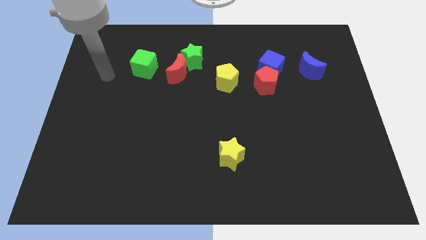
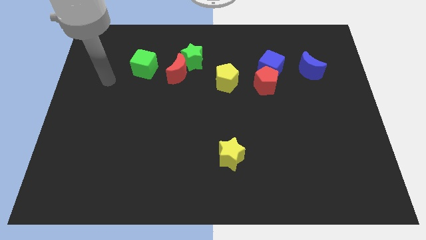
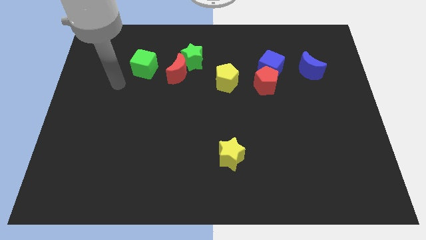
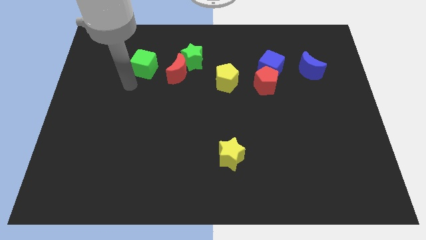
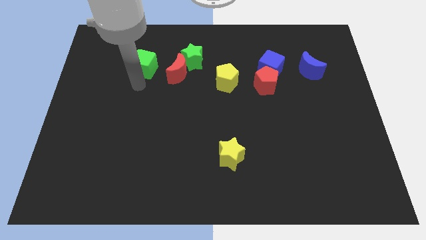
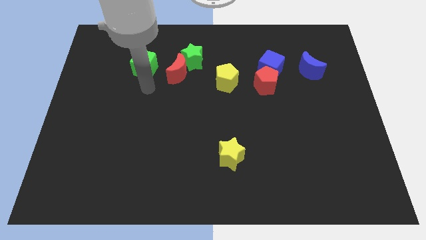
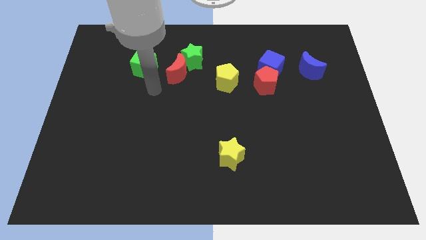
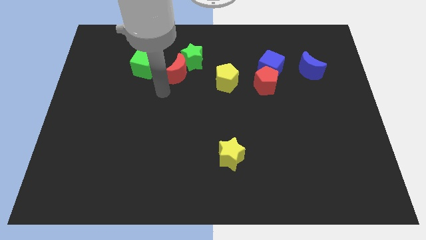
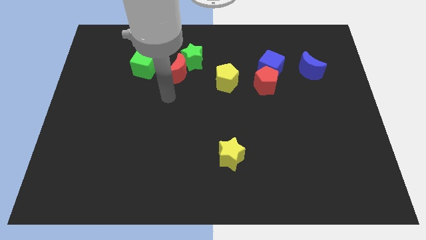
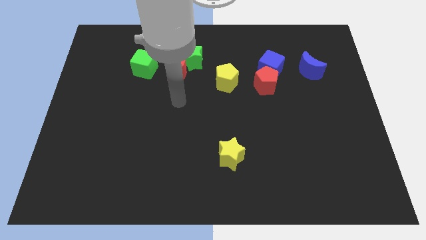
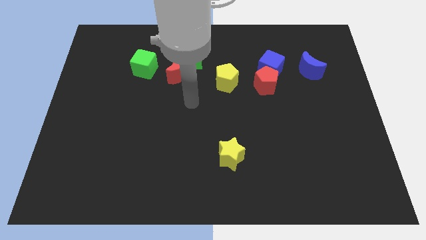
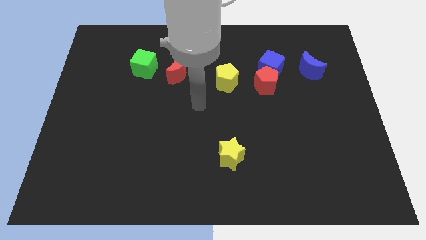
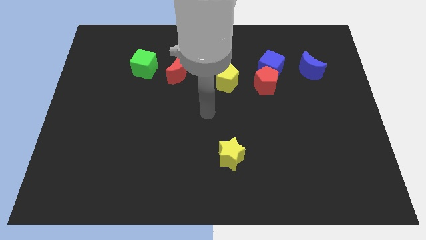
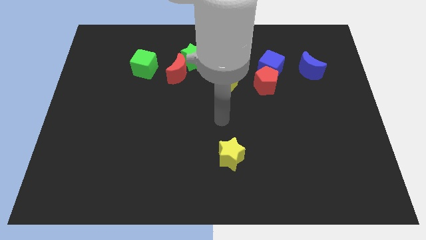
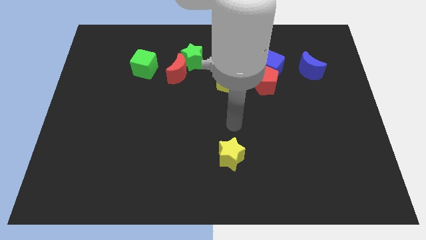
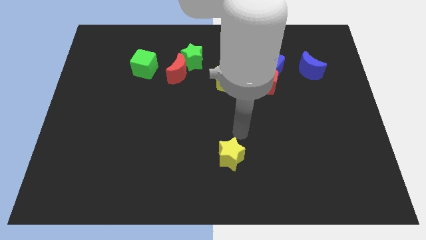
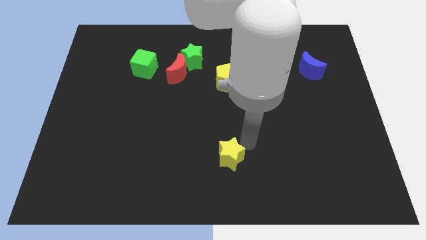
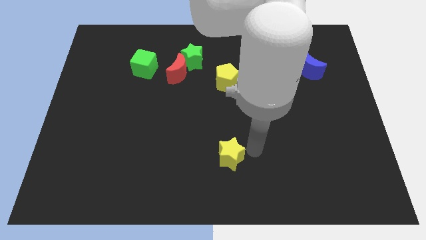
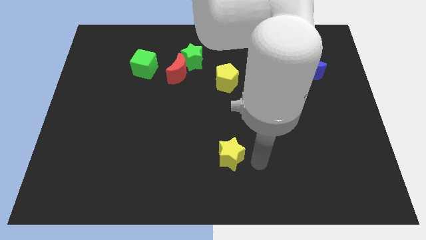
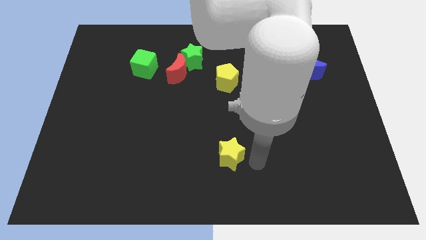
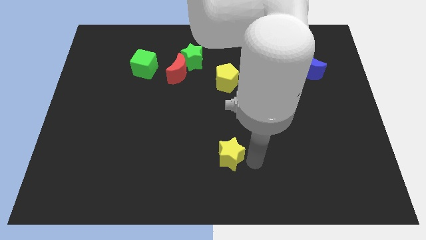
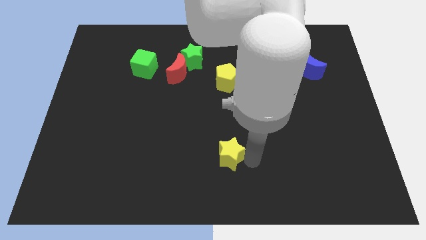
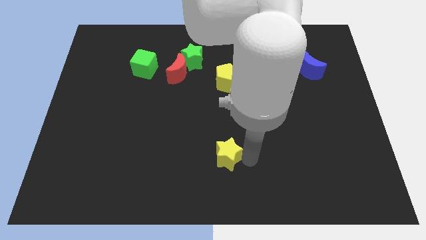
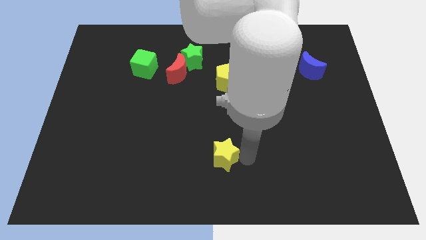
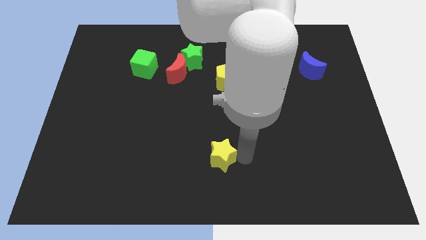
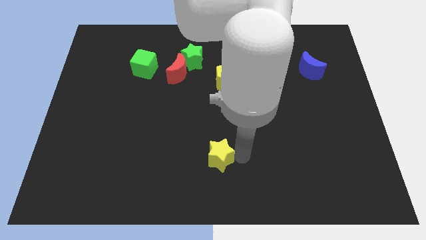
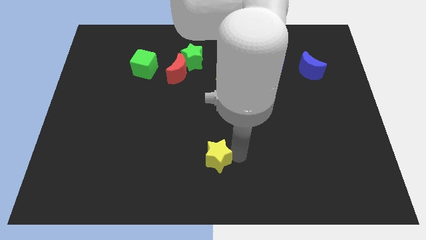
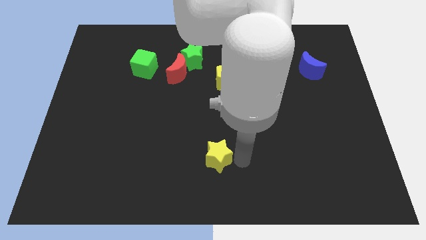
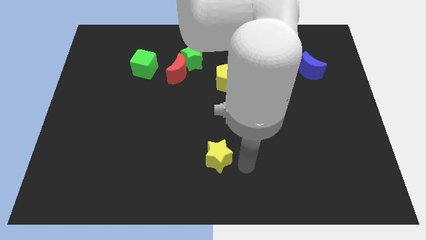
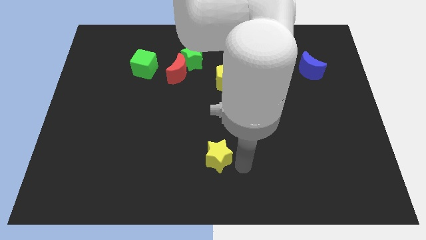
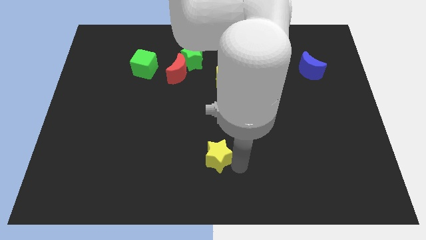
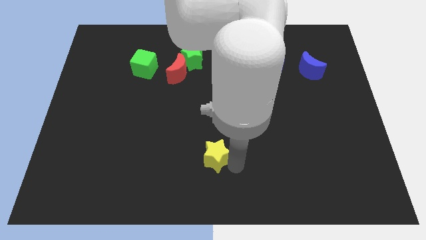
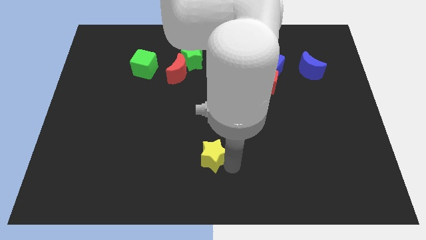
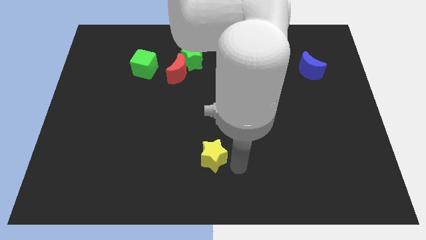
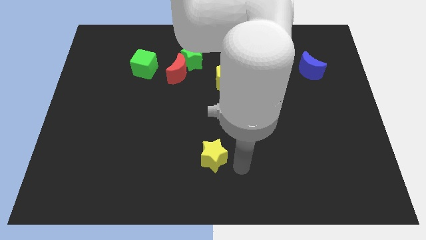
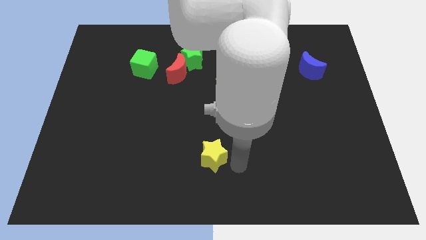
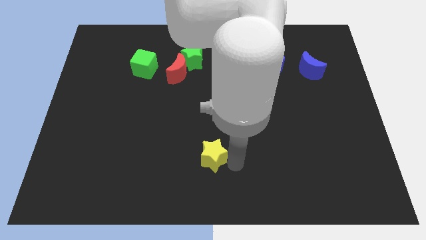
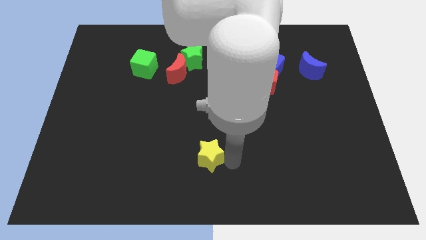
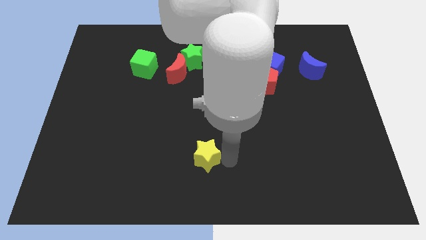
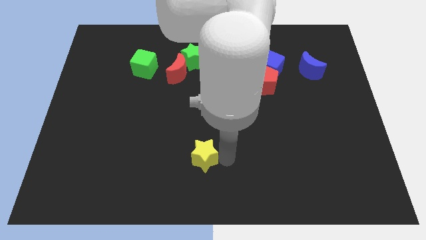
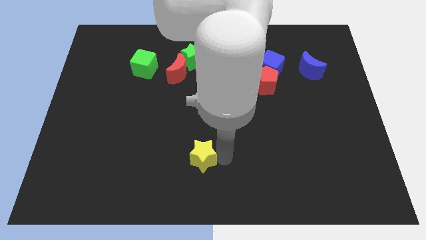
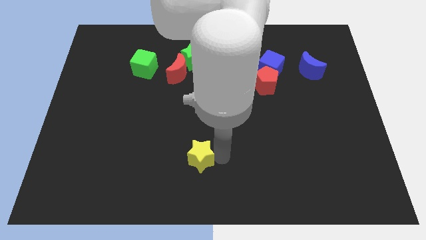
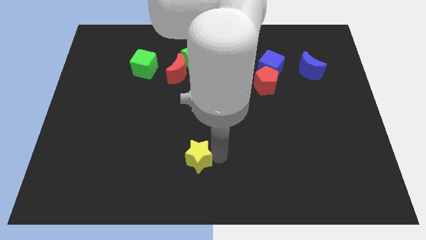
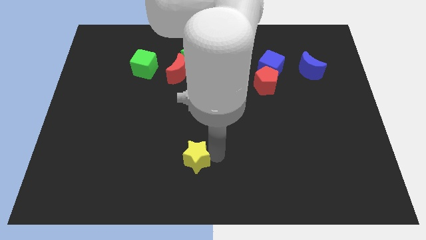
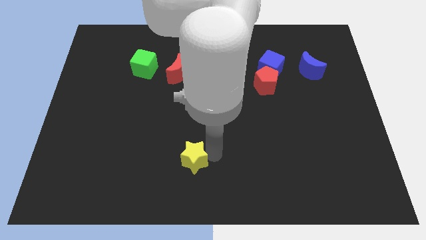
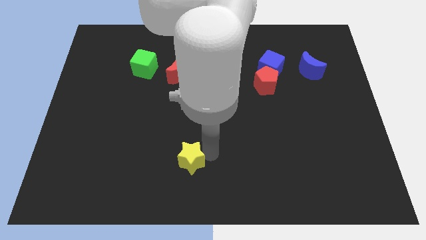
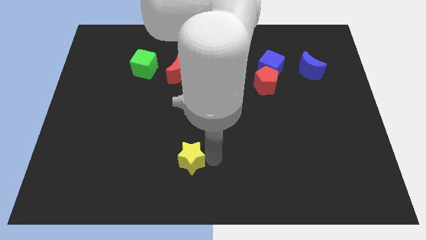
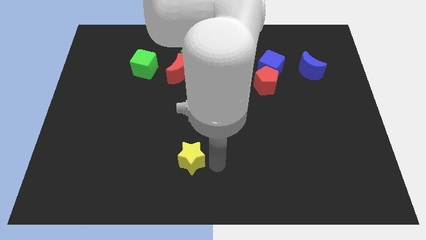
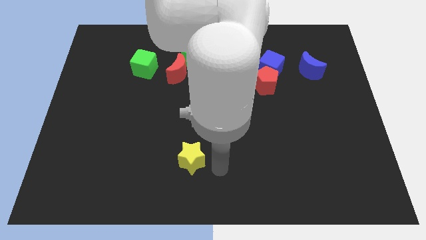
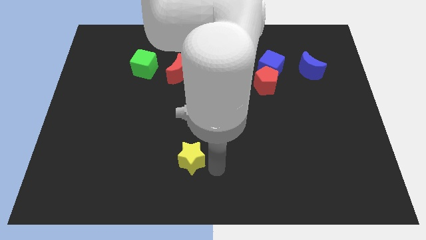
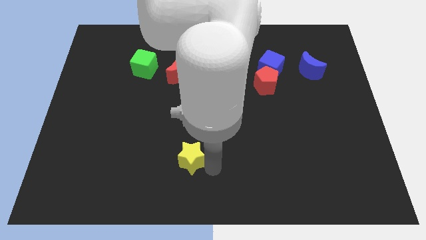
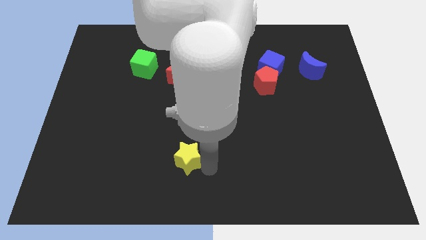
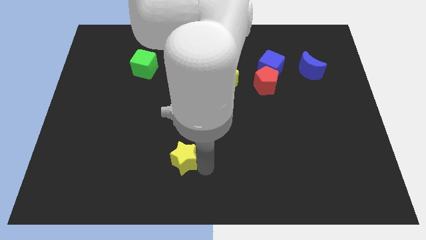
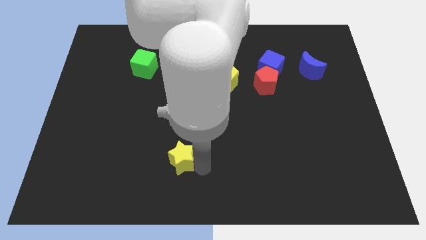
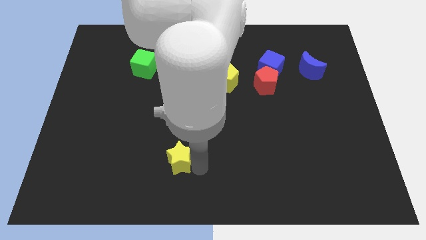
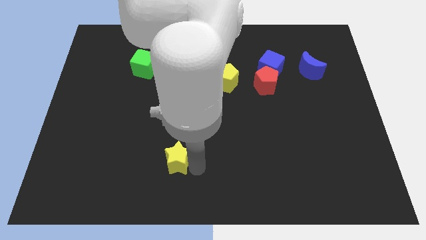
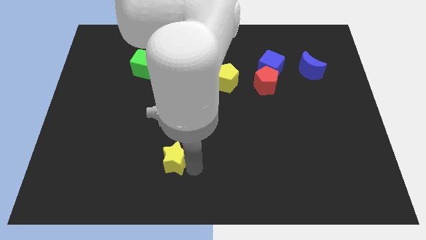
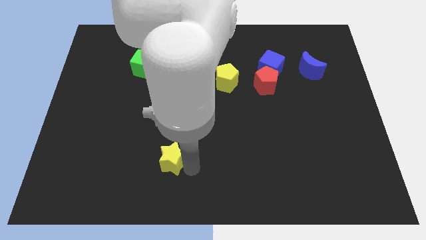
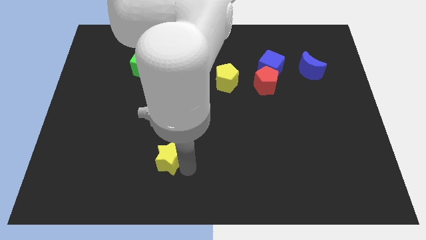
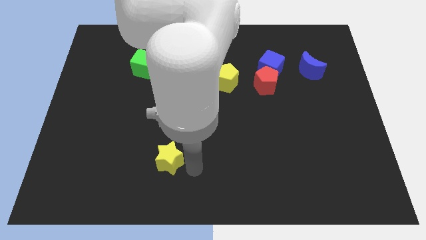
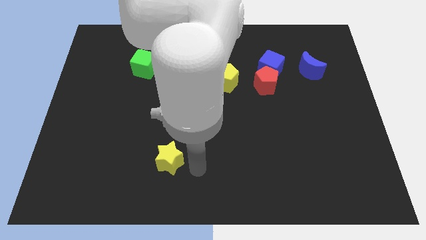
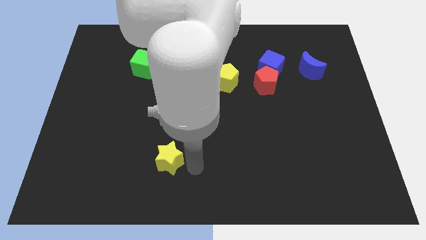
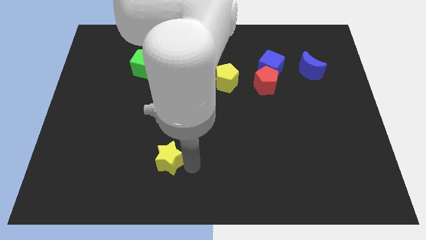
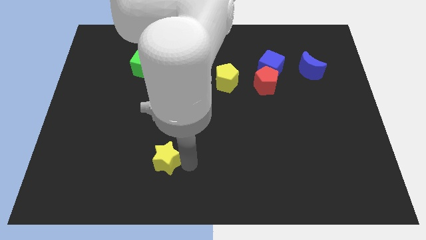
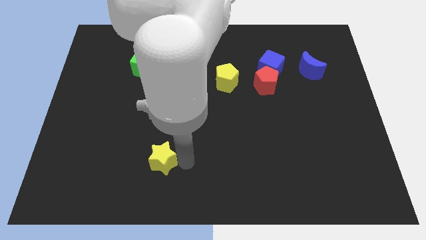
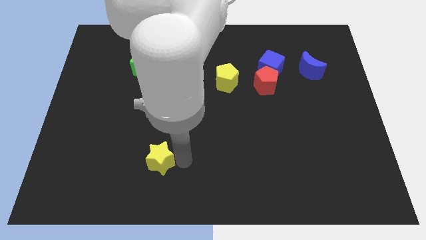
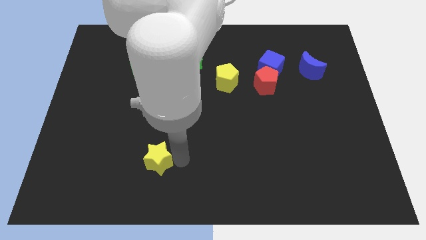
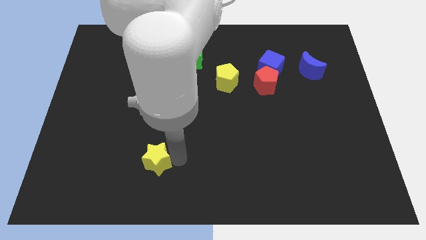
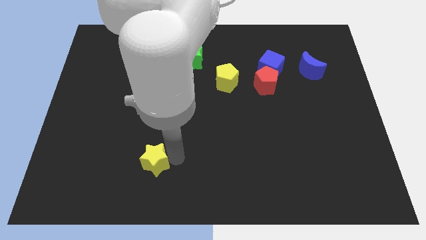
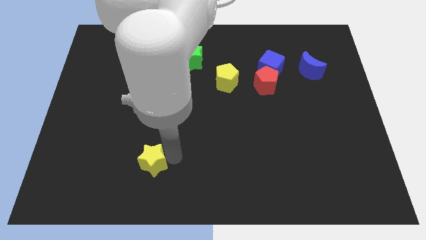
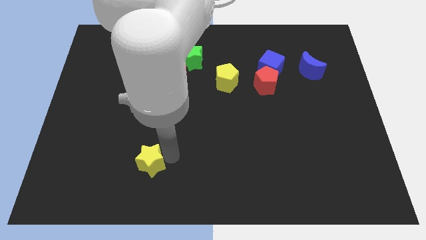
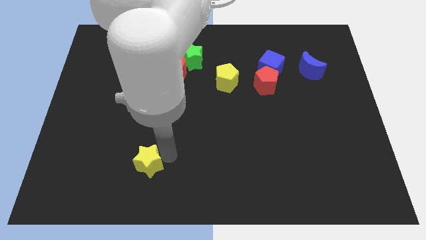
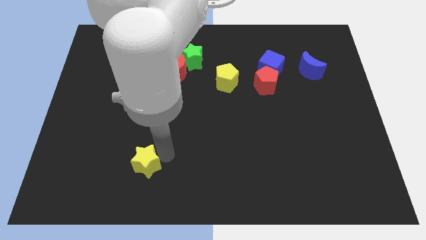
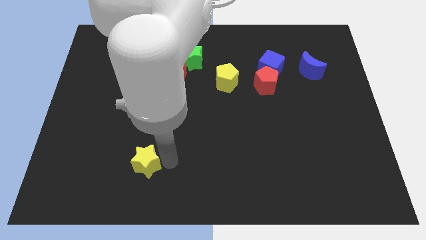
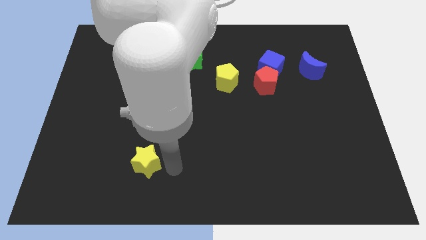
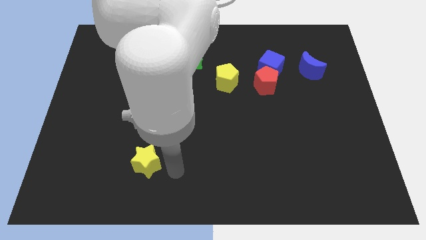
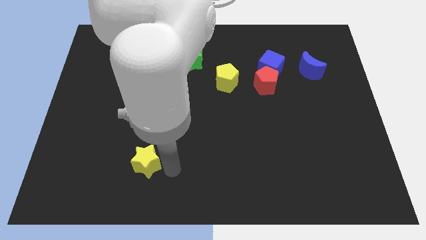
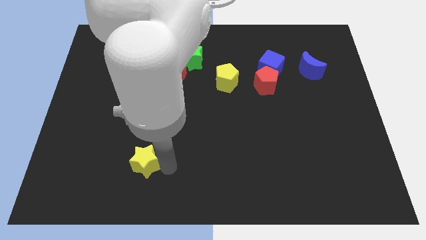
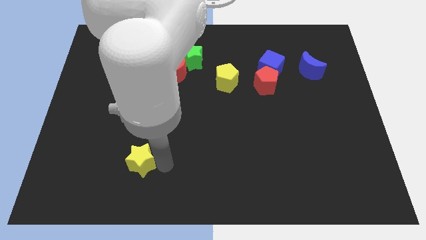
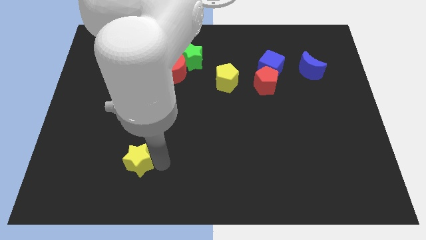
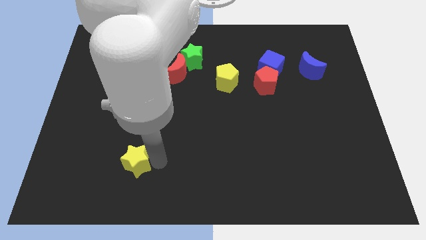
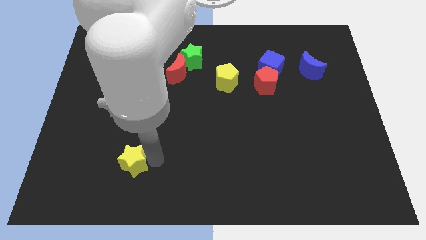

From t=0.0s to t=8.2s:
slide the yellow star left
